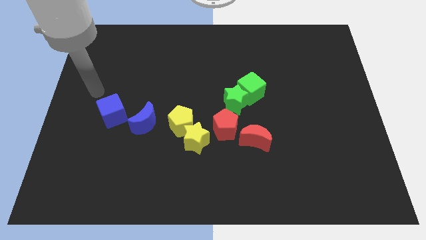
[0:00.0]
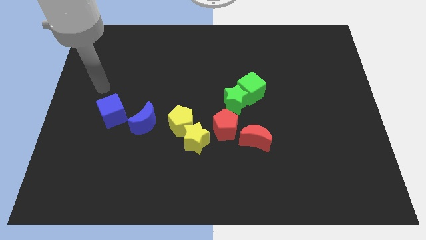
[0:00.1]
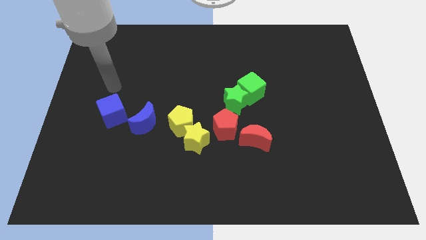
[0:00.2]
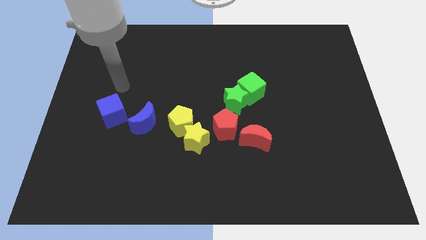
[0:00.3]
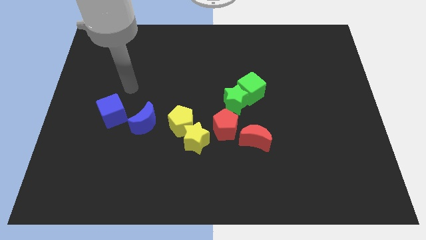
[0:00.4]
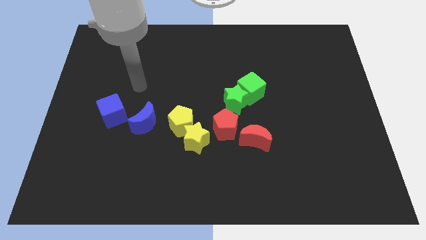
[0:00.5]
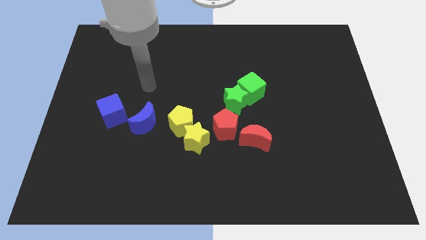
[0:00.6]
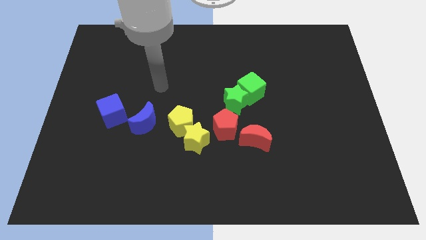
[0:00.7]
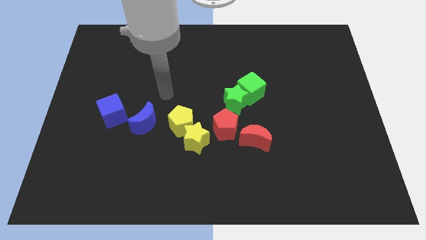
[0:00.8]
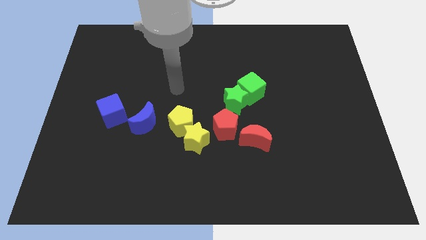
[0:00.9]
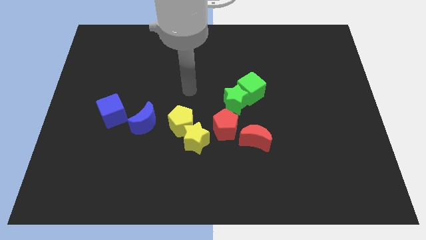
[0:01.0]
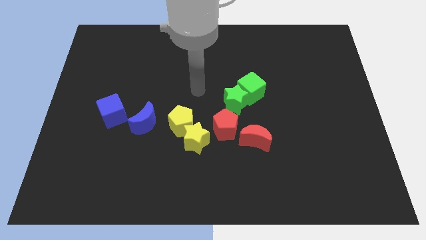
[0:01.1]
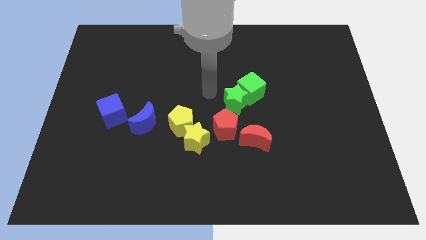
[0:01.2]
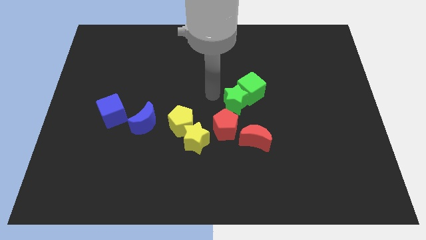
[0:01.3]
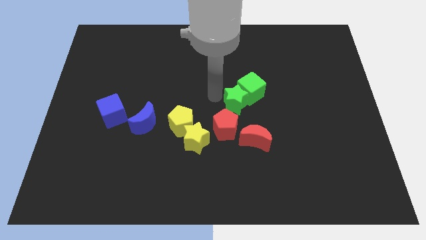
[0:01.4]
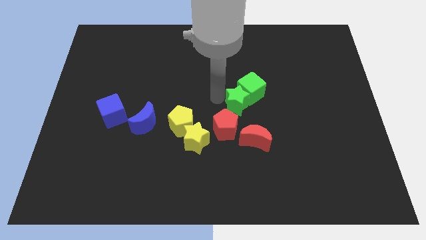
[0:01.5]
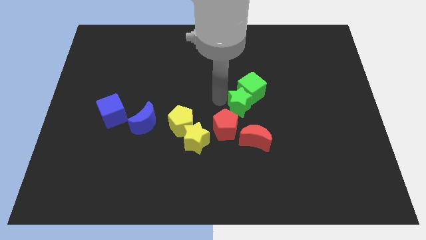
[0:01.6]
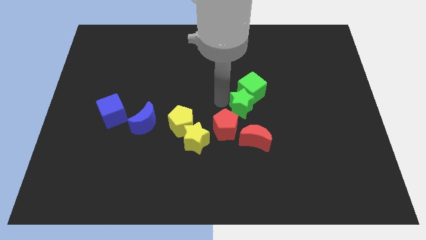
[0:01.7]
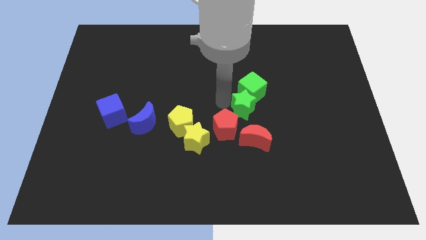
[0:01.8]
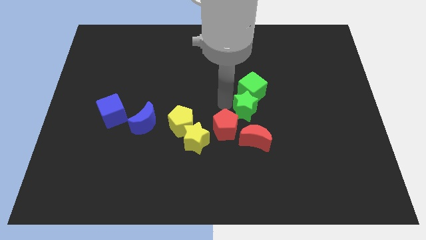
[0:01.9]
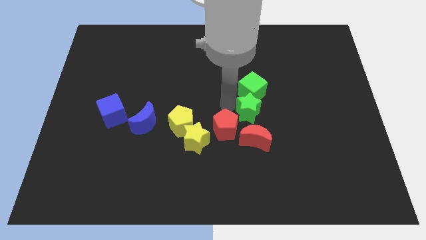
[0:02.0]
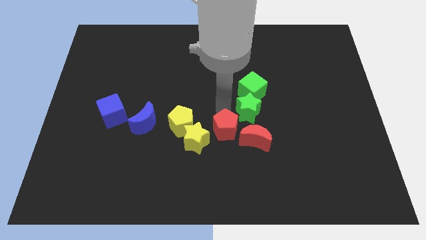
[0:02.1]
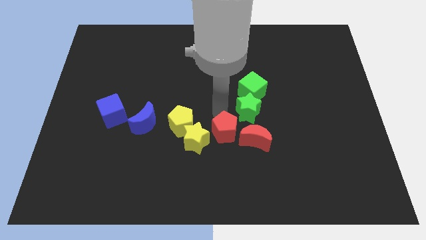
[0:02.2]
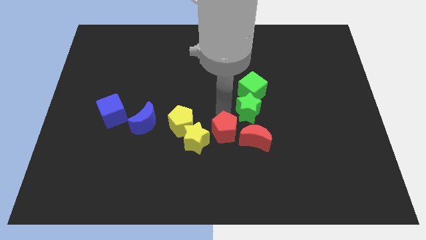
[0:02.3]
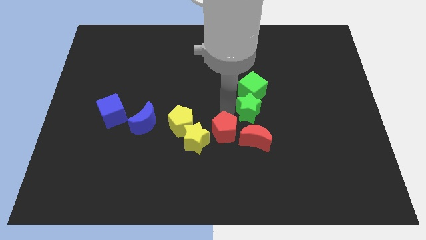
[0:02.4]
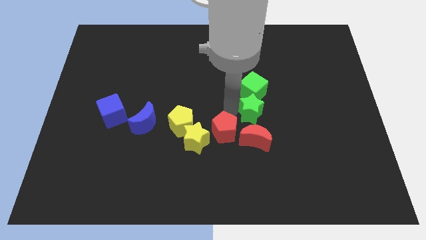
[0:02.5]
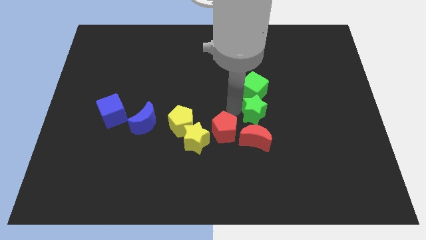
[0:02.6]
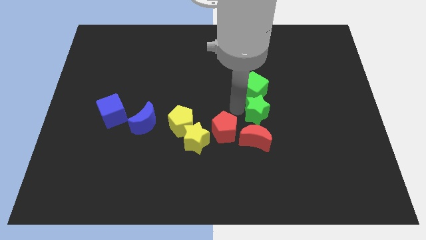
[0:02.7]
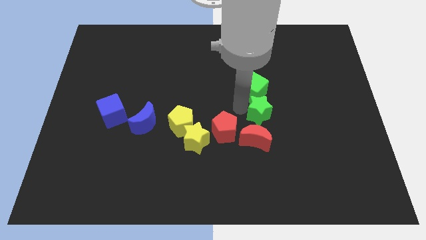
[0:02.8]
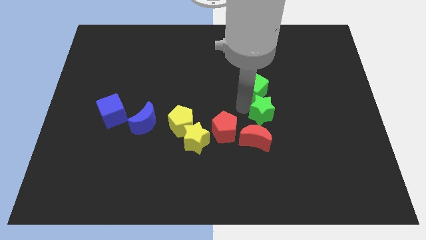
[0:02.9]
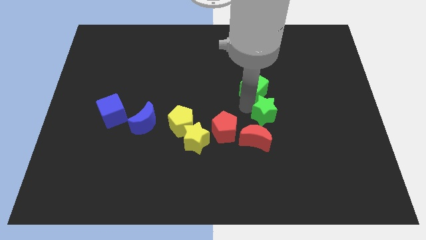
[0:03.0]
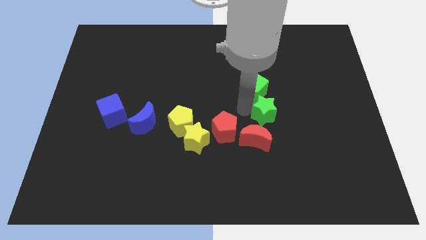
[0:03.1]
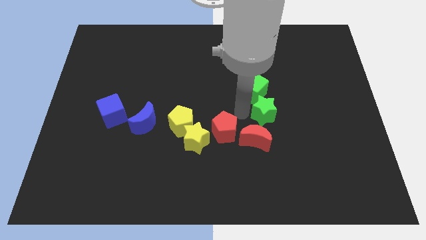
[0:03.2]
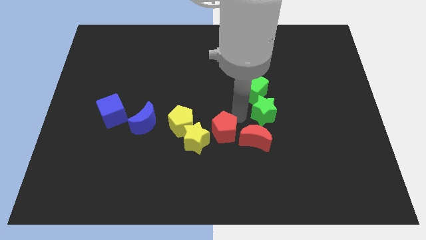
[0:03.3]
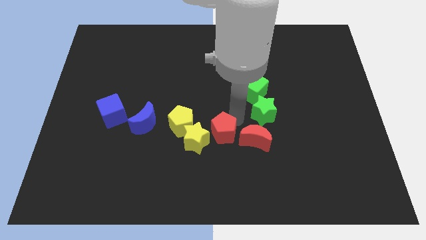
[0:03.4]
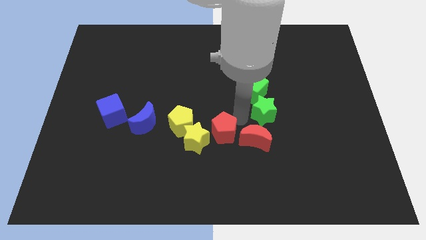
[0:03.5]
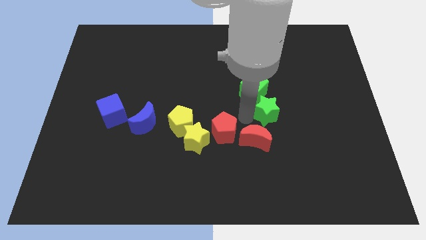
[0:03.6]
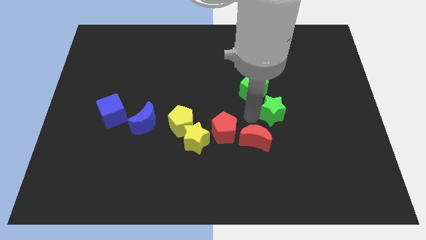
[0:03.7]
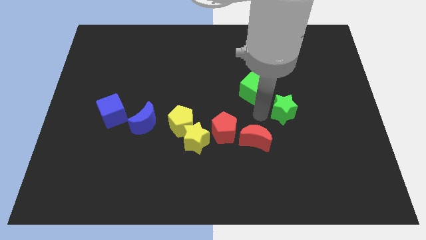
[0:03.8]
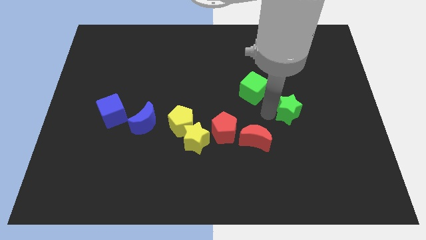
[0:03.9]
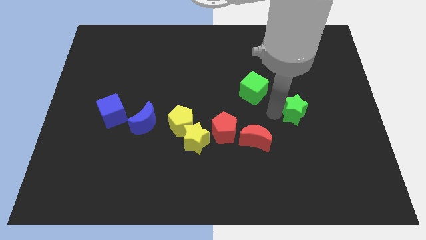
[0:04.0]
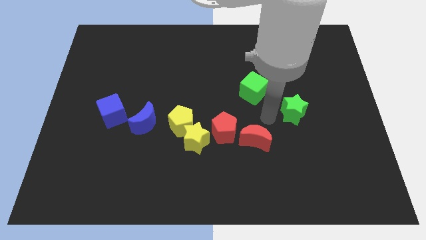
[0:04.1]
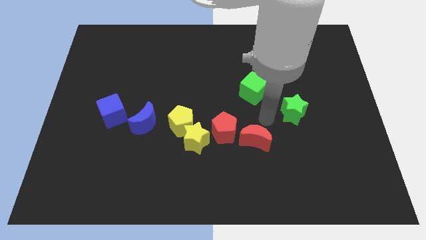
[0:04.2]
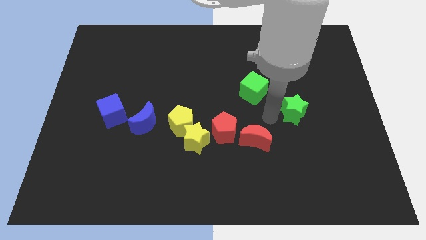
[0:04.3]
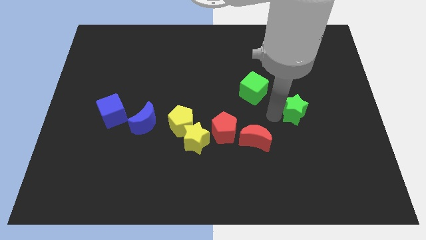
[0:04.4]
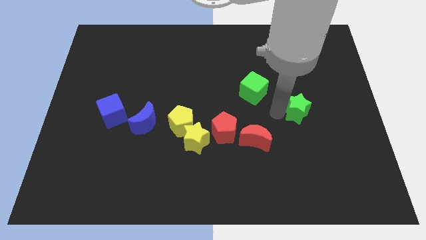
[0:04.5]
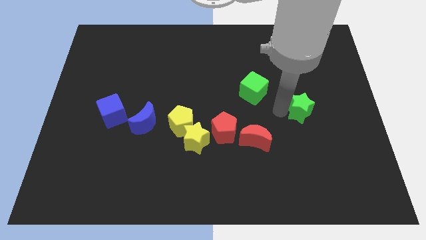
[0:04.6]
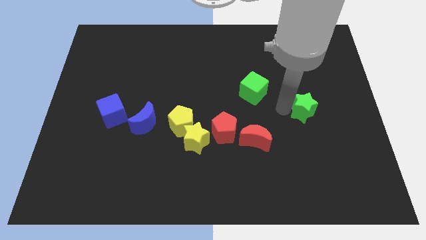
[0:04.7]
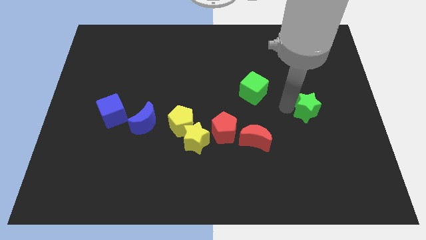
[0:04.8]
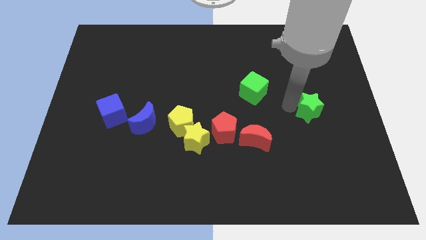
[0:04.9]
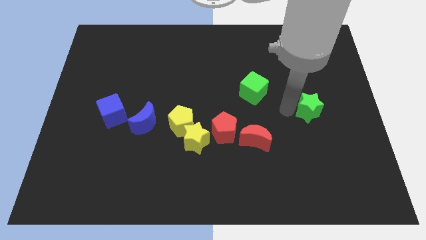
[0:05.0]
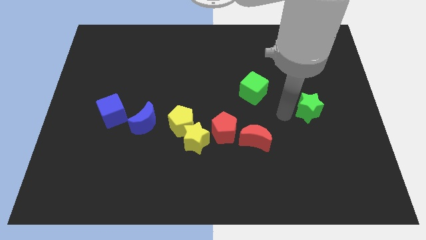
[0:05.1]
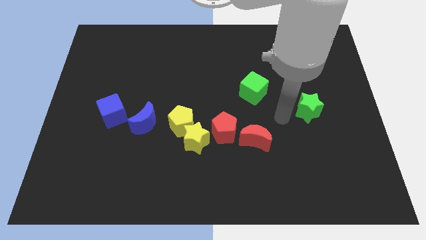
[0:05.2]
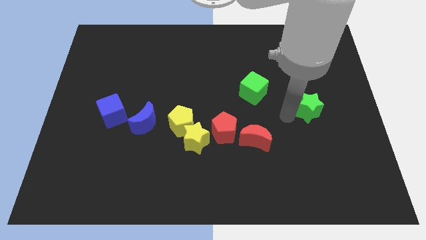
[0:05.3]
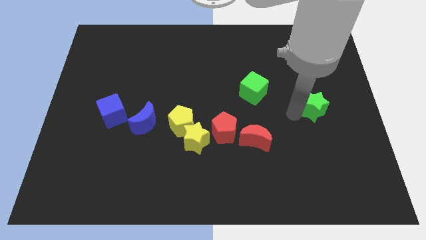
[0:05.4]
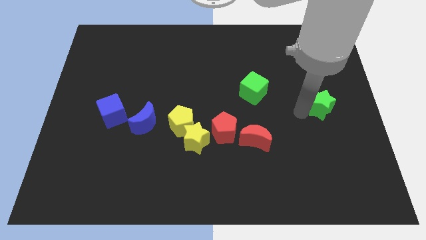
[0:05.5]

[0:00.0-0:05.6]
move the green star to the center right
